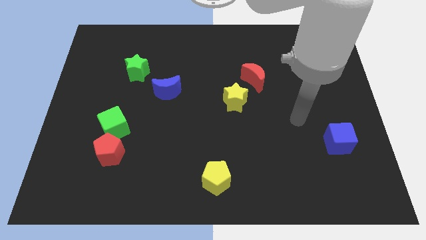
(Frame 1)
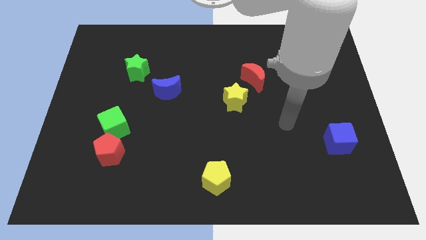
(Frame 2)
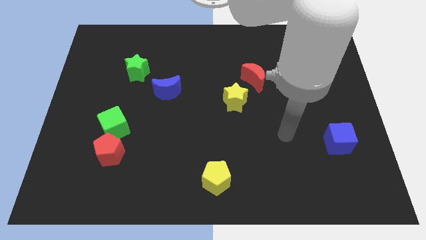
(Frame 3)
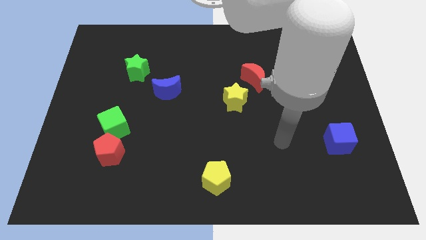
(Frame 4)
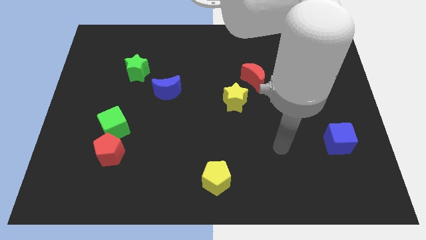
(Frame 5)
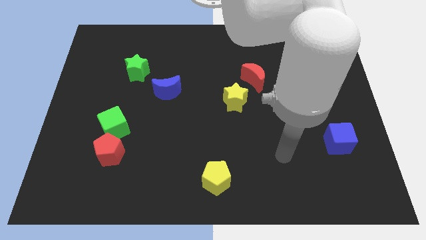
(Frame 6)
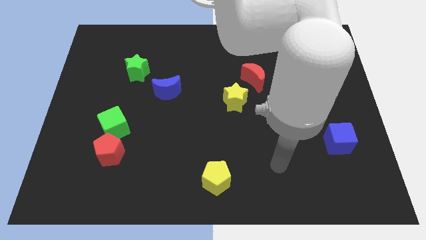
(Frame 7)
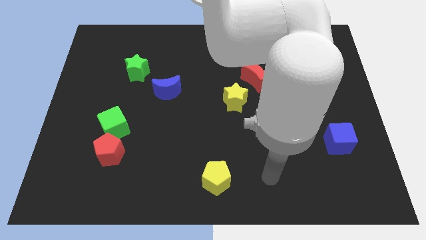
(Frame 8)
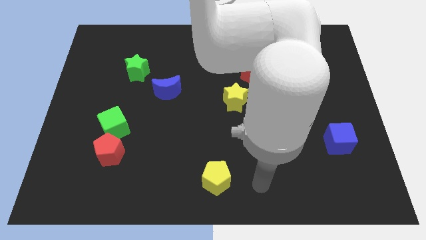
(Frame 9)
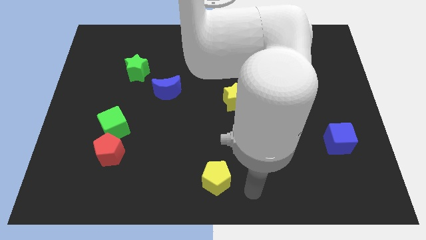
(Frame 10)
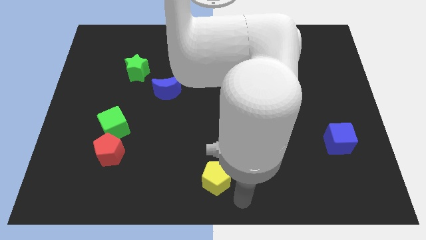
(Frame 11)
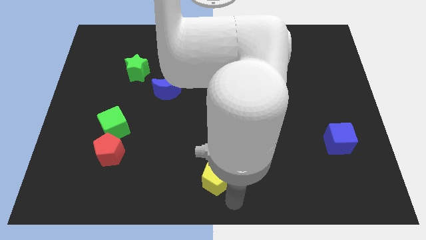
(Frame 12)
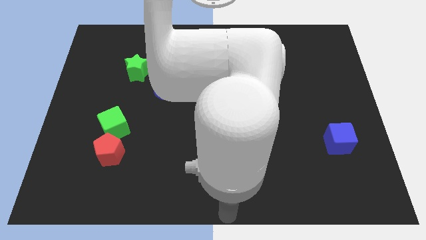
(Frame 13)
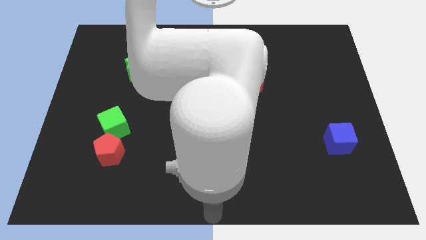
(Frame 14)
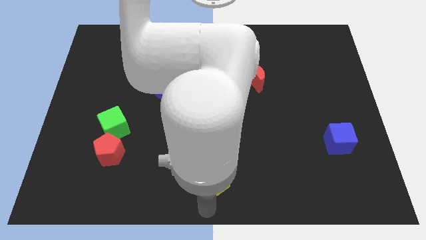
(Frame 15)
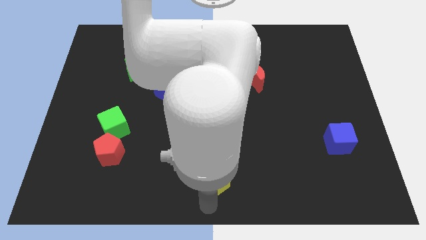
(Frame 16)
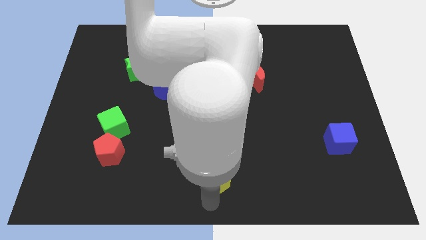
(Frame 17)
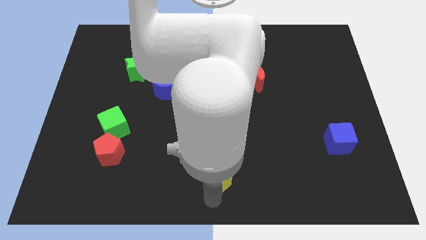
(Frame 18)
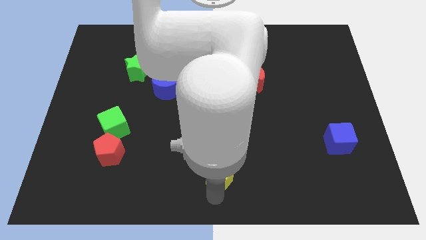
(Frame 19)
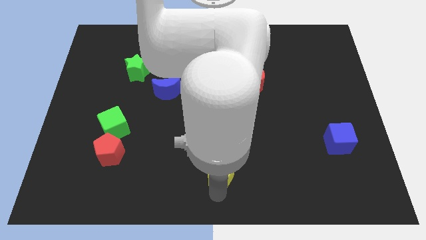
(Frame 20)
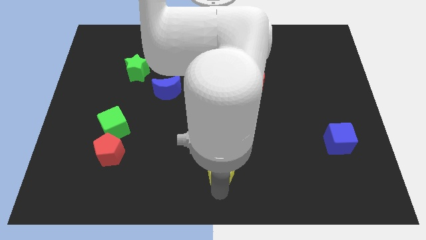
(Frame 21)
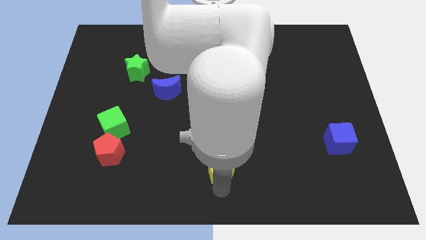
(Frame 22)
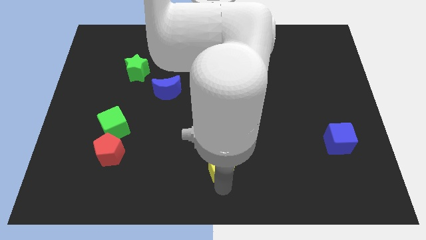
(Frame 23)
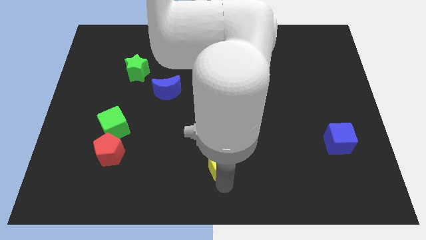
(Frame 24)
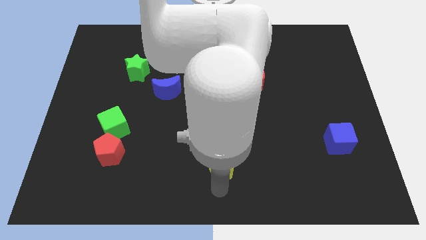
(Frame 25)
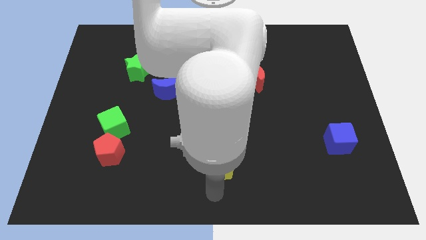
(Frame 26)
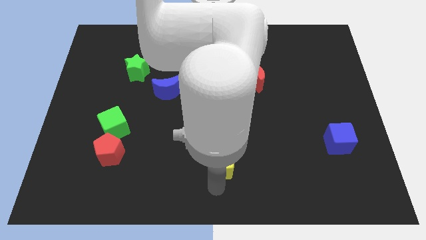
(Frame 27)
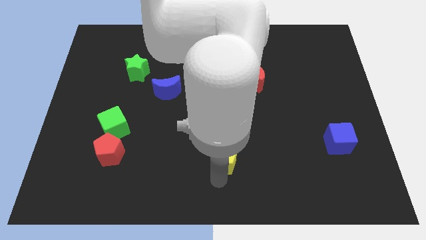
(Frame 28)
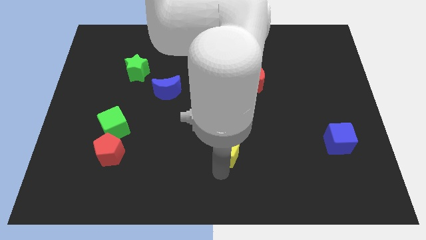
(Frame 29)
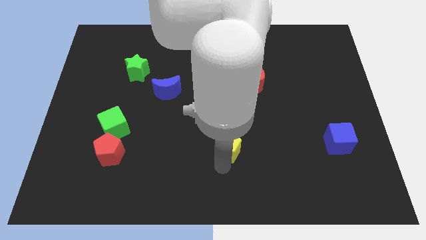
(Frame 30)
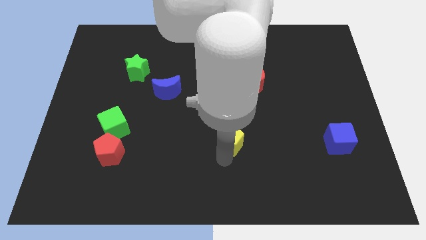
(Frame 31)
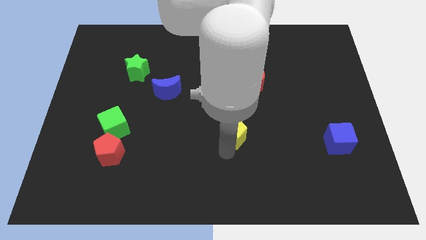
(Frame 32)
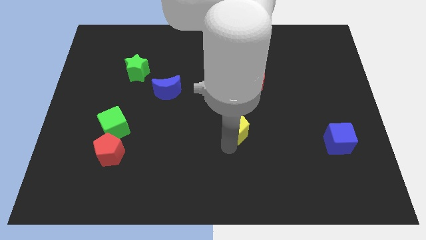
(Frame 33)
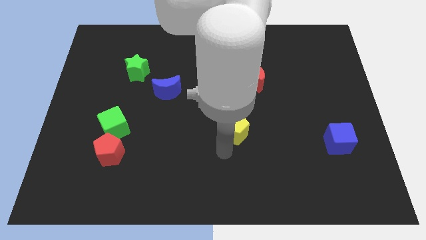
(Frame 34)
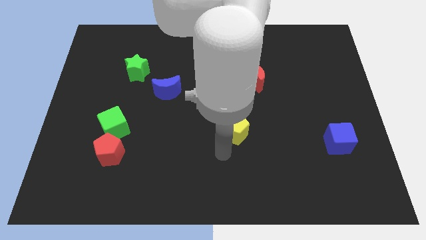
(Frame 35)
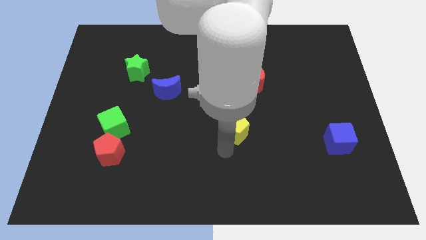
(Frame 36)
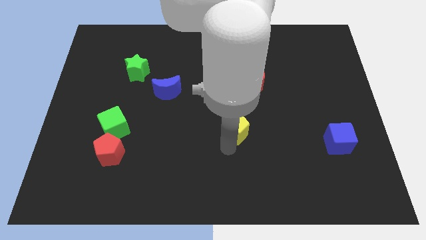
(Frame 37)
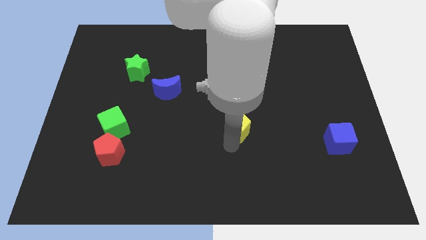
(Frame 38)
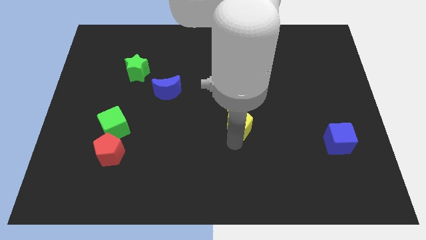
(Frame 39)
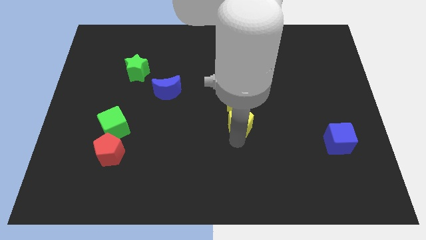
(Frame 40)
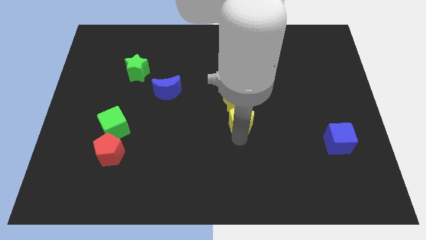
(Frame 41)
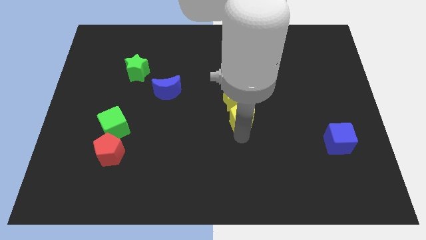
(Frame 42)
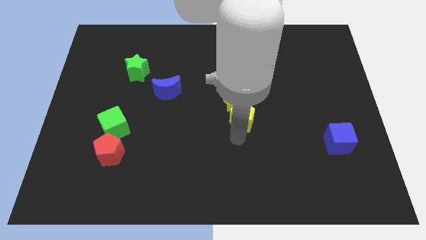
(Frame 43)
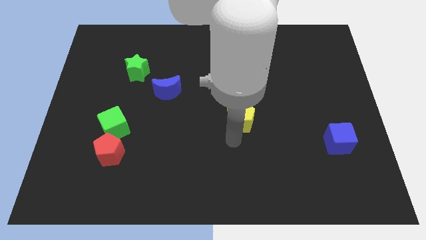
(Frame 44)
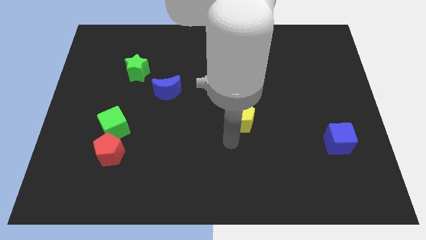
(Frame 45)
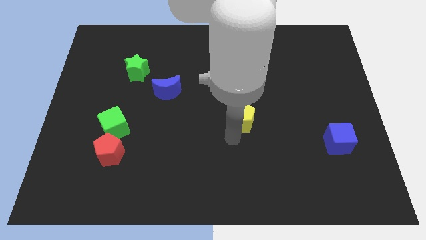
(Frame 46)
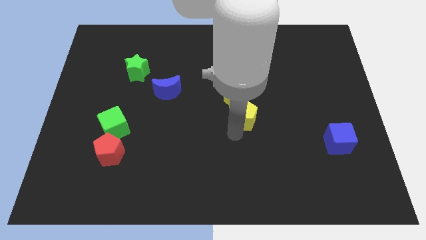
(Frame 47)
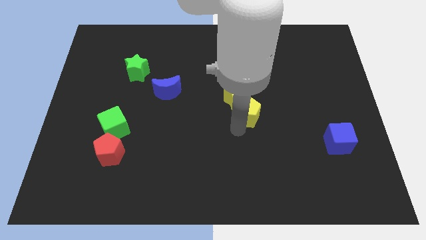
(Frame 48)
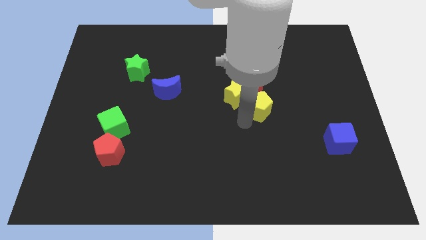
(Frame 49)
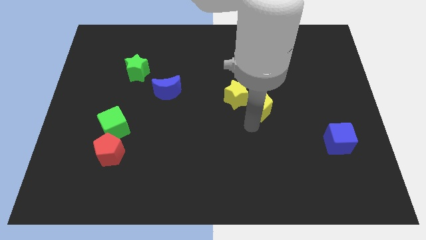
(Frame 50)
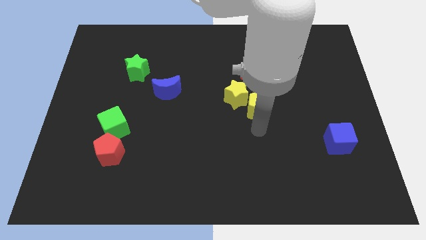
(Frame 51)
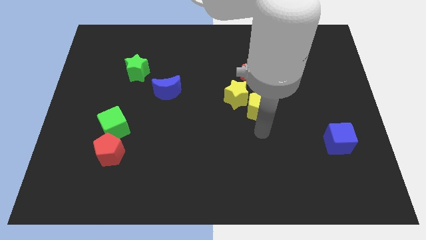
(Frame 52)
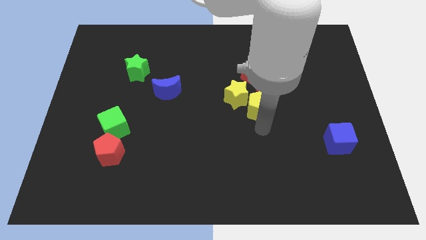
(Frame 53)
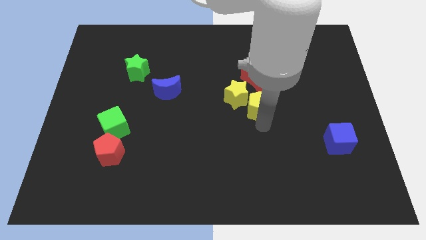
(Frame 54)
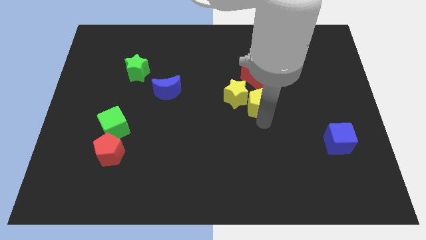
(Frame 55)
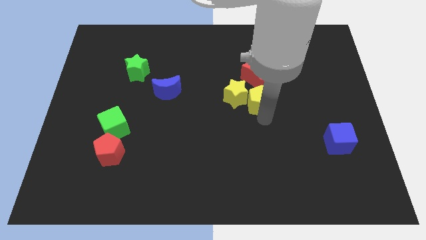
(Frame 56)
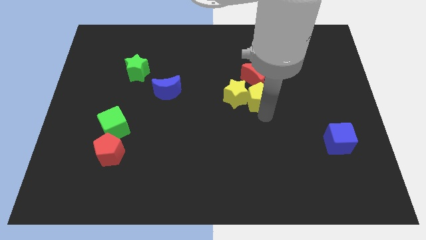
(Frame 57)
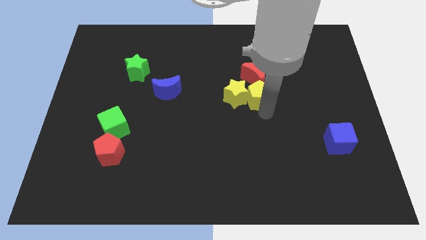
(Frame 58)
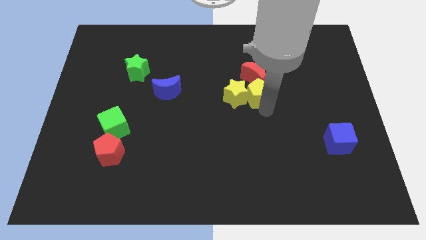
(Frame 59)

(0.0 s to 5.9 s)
push the yellow pentagon next to the red moon

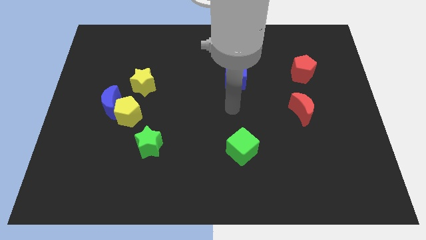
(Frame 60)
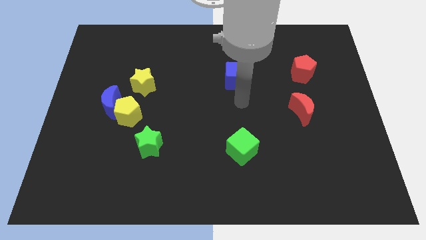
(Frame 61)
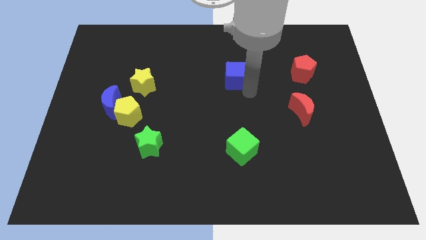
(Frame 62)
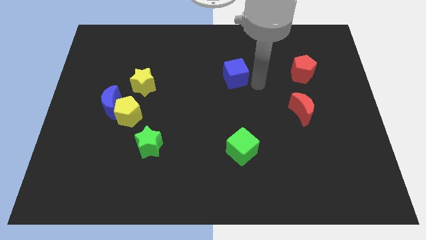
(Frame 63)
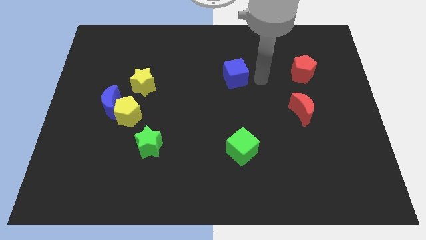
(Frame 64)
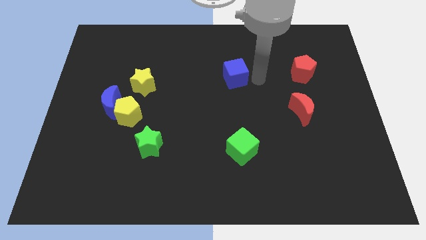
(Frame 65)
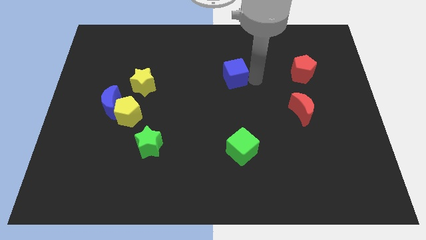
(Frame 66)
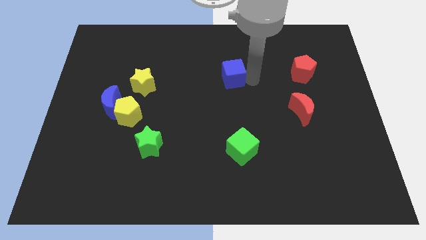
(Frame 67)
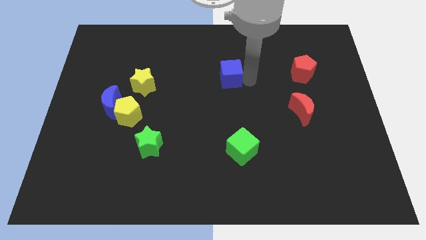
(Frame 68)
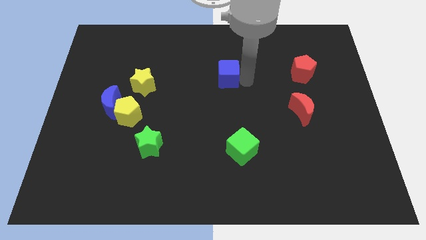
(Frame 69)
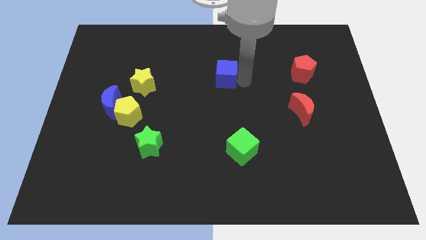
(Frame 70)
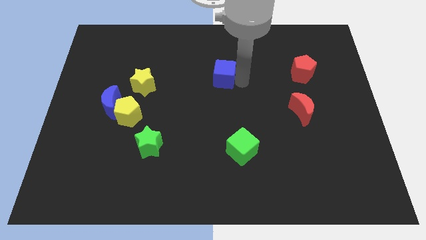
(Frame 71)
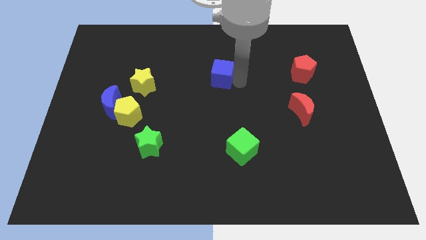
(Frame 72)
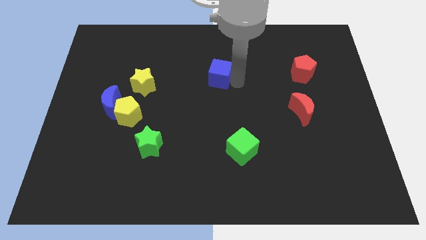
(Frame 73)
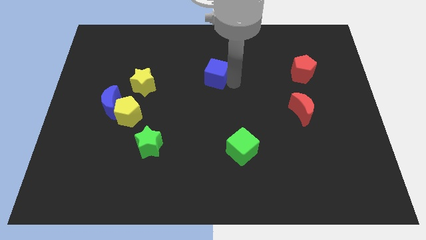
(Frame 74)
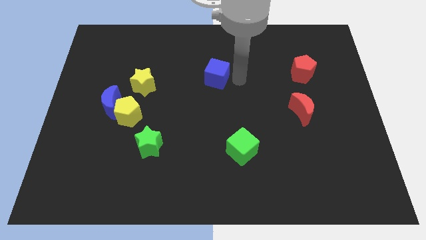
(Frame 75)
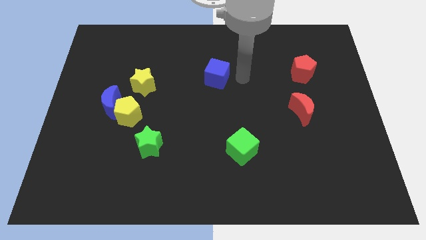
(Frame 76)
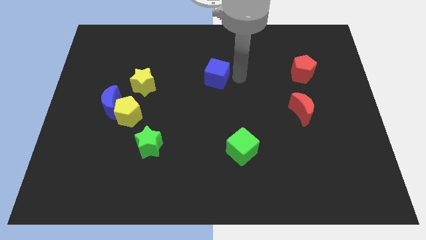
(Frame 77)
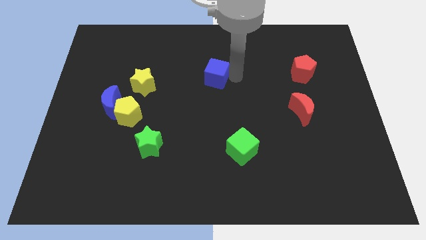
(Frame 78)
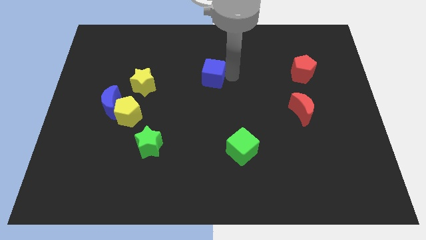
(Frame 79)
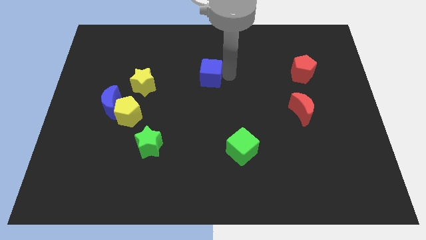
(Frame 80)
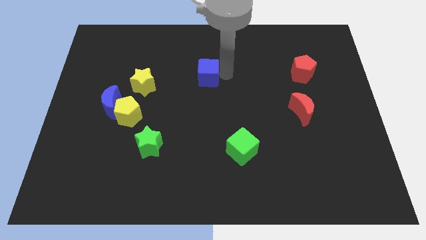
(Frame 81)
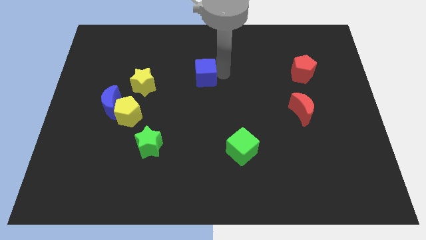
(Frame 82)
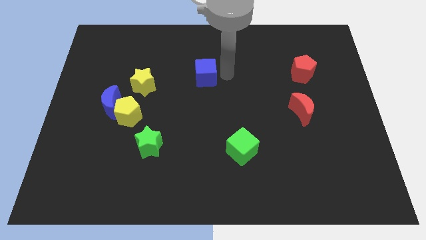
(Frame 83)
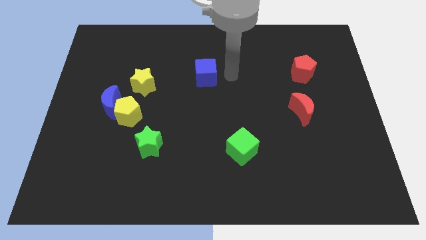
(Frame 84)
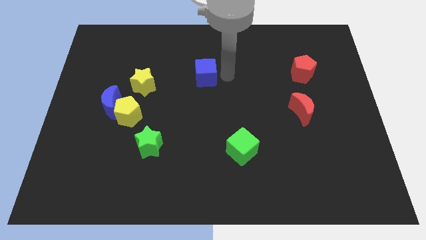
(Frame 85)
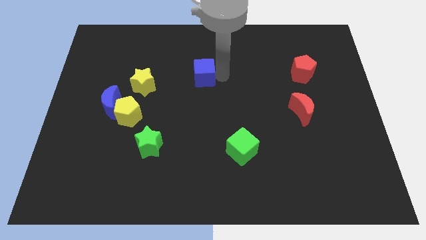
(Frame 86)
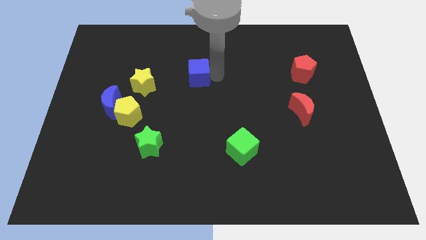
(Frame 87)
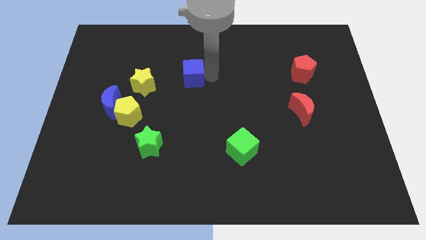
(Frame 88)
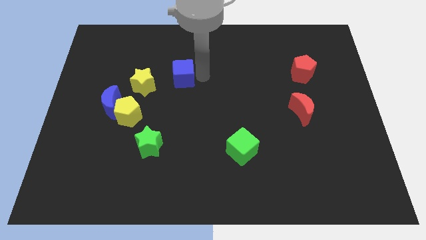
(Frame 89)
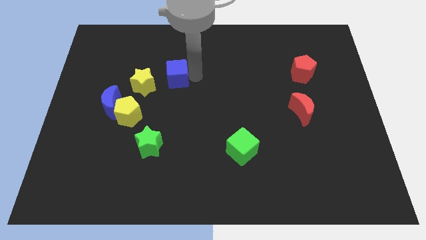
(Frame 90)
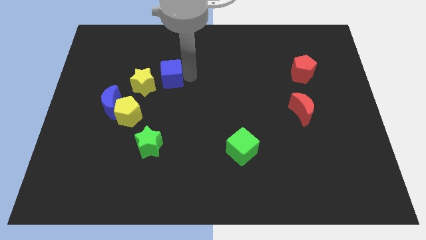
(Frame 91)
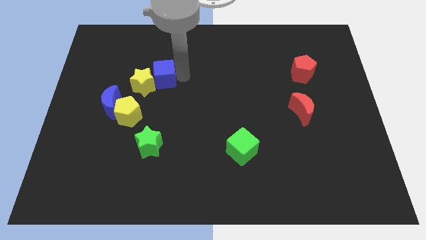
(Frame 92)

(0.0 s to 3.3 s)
slide the blue cube close to the yellow star
